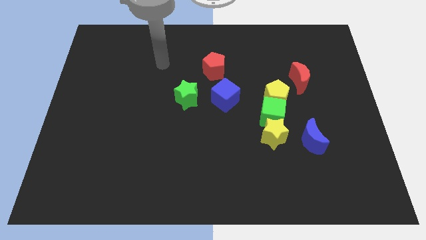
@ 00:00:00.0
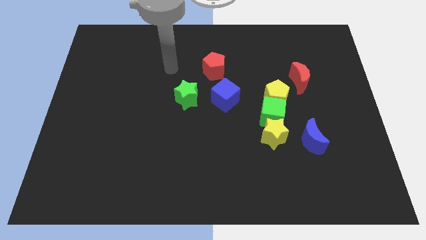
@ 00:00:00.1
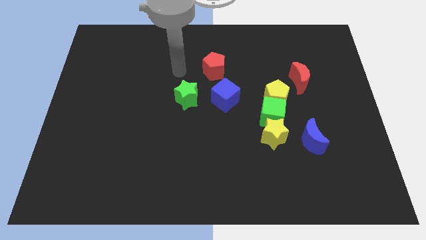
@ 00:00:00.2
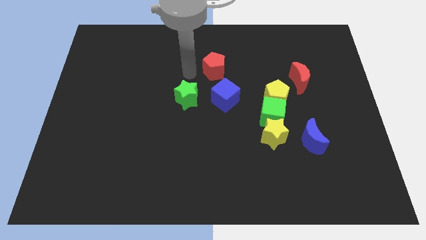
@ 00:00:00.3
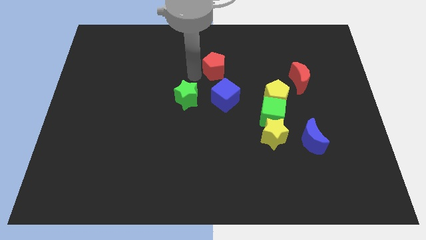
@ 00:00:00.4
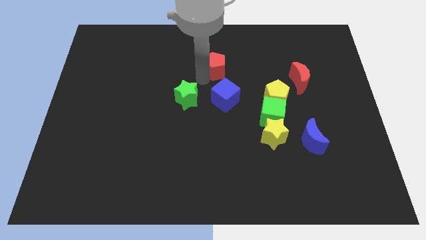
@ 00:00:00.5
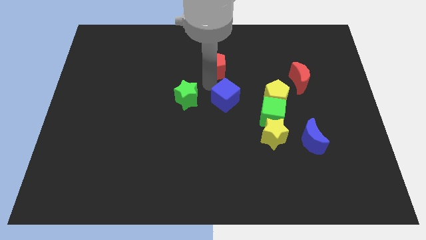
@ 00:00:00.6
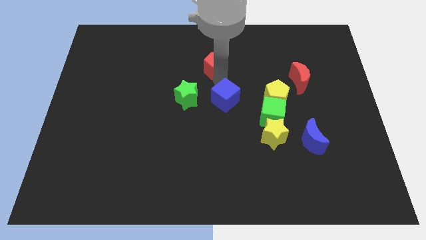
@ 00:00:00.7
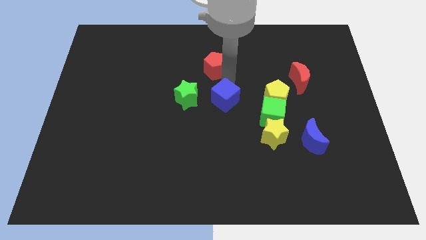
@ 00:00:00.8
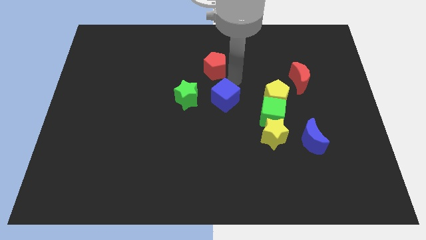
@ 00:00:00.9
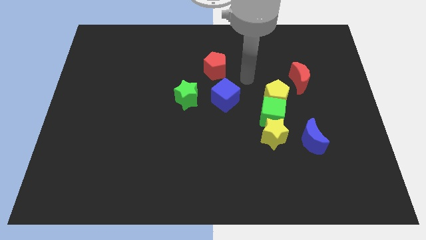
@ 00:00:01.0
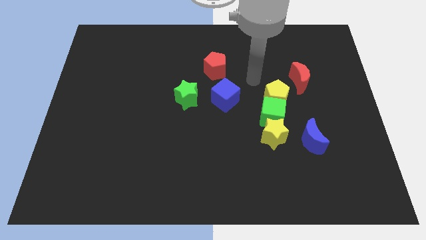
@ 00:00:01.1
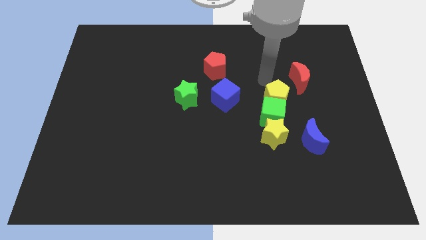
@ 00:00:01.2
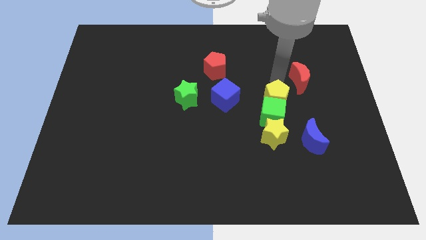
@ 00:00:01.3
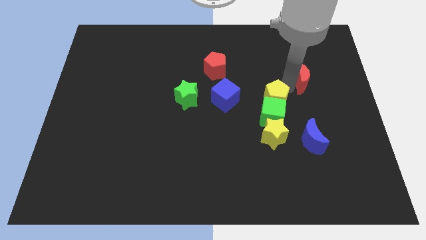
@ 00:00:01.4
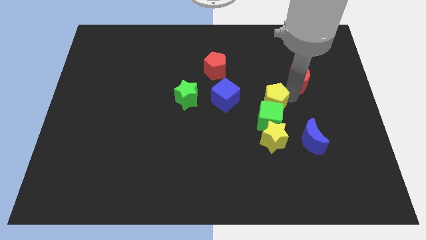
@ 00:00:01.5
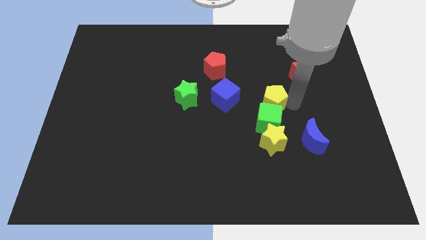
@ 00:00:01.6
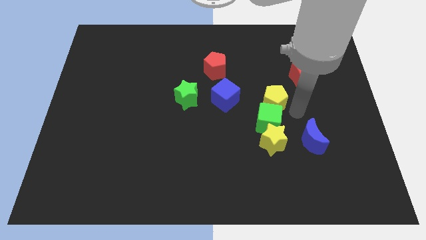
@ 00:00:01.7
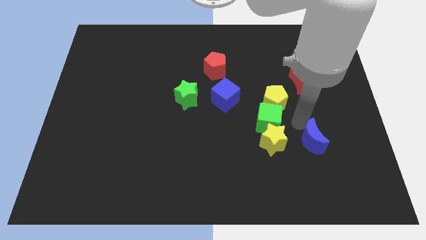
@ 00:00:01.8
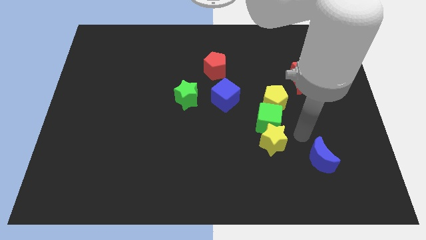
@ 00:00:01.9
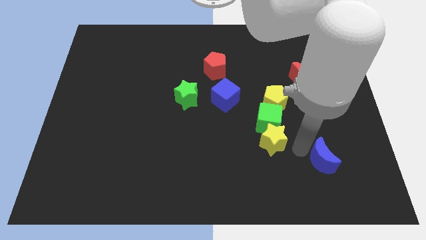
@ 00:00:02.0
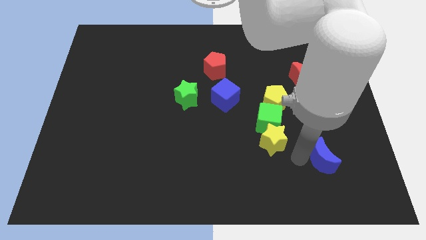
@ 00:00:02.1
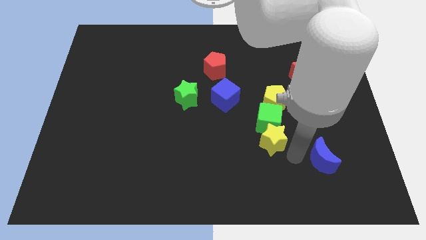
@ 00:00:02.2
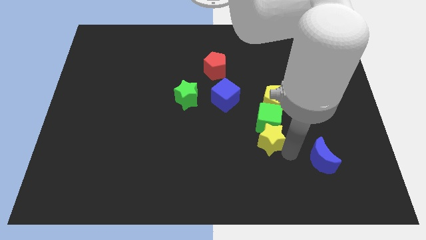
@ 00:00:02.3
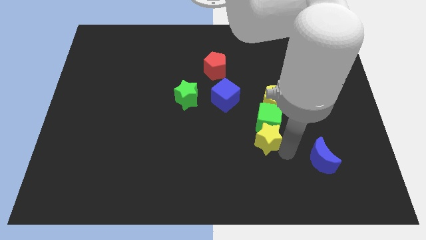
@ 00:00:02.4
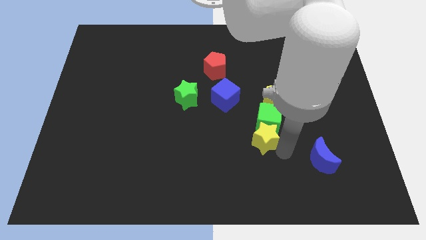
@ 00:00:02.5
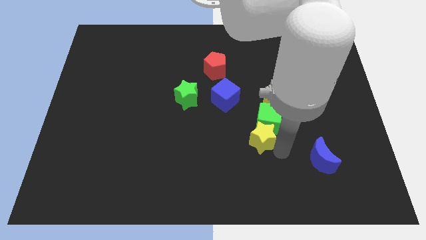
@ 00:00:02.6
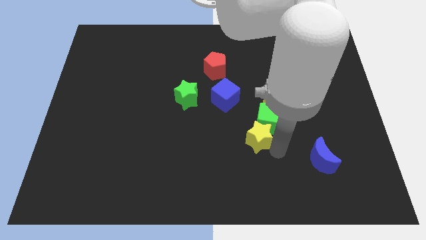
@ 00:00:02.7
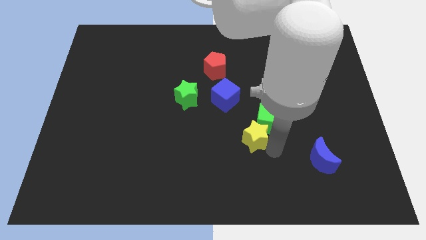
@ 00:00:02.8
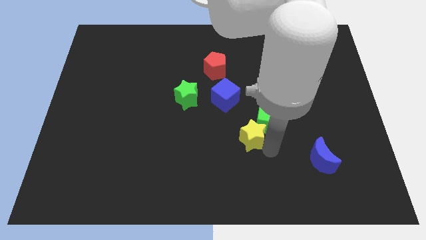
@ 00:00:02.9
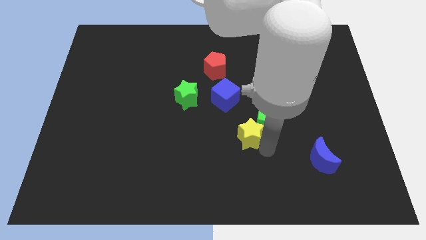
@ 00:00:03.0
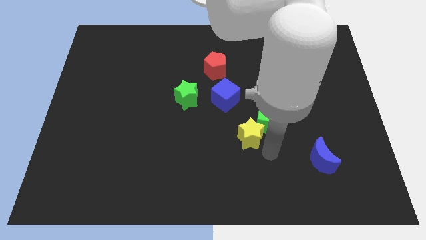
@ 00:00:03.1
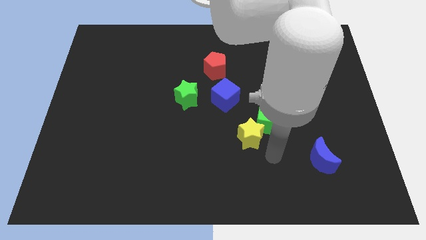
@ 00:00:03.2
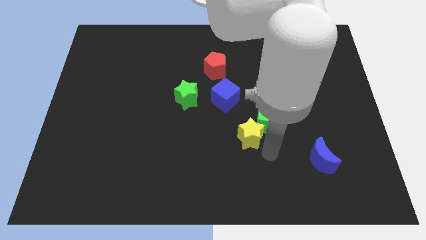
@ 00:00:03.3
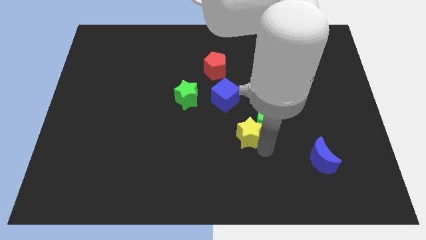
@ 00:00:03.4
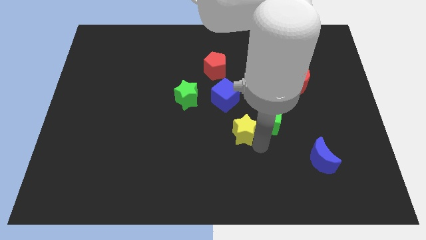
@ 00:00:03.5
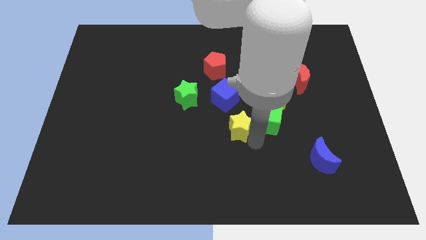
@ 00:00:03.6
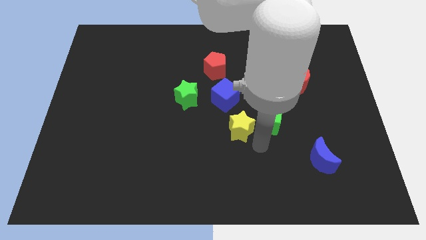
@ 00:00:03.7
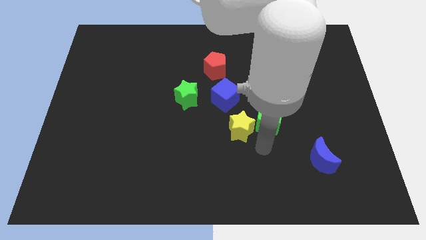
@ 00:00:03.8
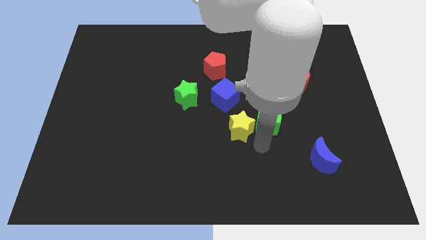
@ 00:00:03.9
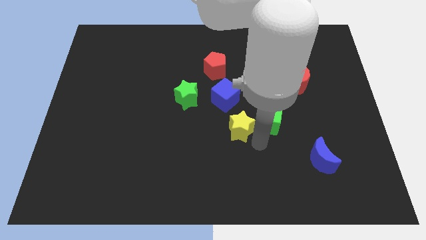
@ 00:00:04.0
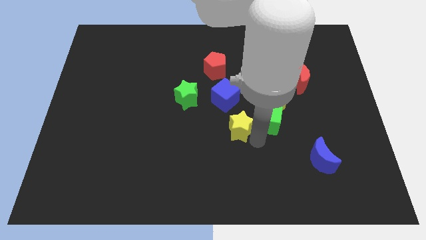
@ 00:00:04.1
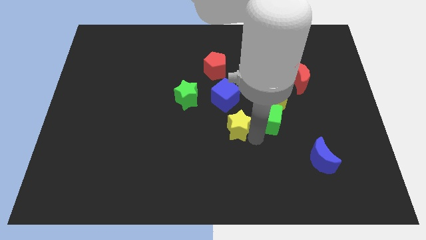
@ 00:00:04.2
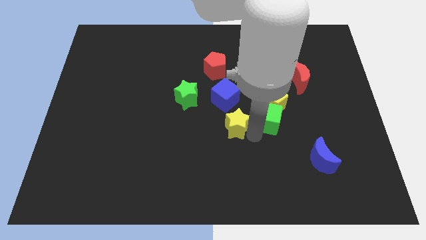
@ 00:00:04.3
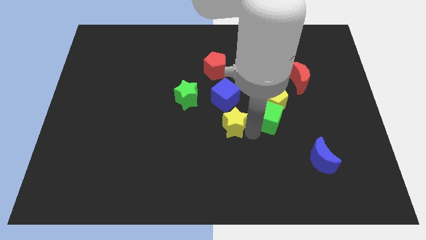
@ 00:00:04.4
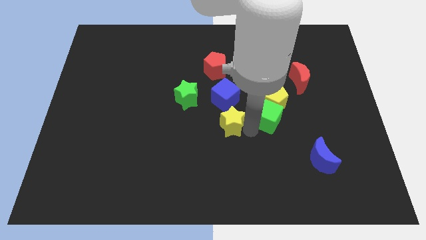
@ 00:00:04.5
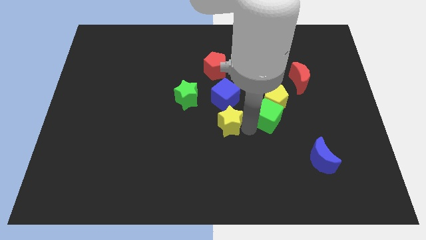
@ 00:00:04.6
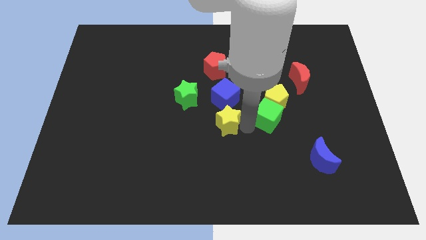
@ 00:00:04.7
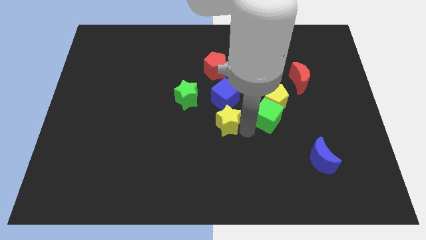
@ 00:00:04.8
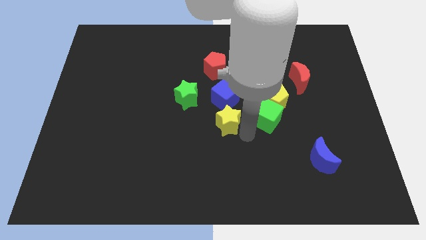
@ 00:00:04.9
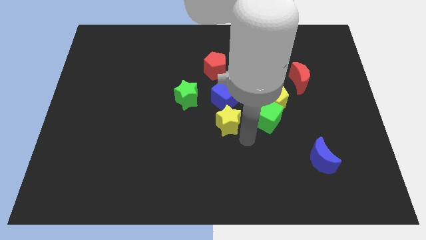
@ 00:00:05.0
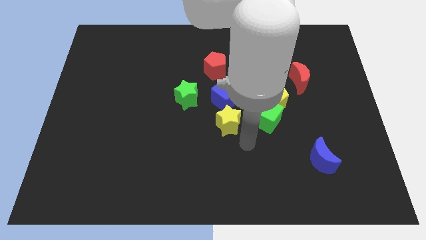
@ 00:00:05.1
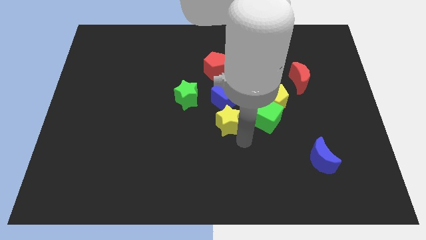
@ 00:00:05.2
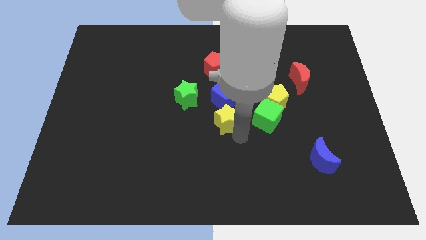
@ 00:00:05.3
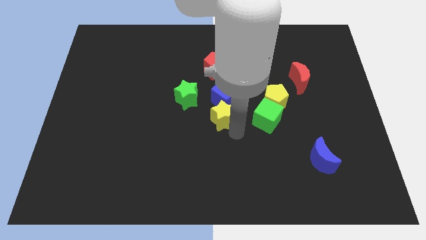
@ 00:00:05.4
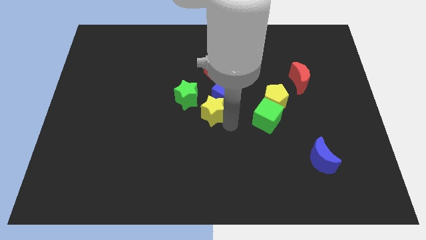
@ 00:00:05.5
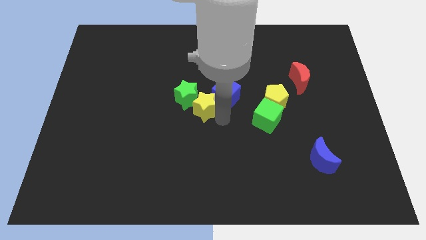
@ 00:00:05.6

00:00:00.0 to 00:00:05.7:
slide the yellow star next to the green star

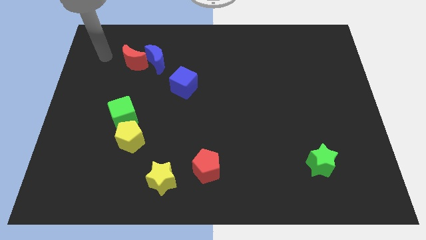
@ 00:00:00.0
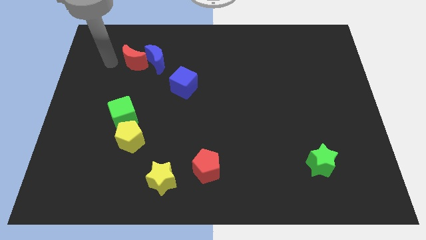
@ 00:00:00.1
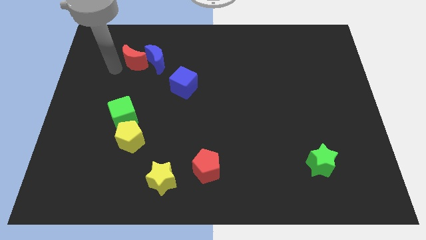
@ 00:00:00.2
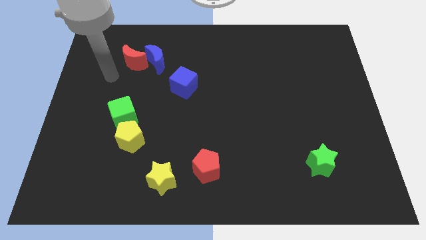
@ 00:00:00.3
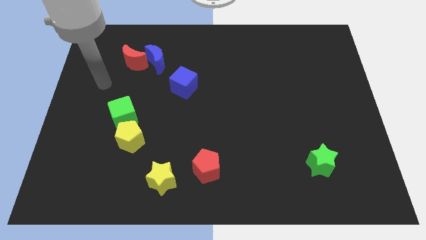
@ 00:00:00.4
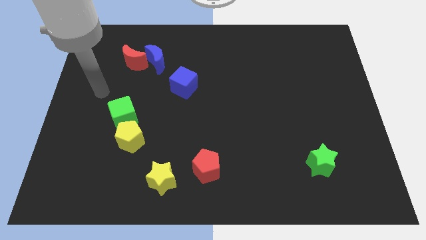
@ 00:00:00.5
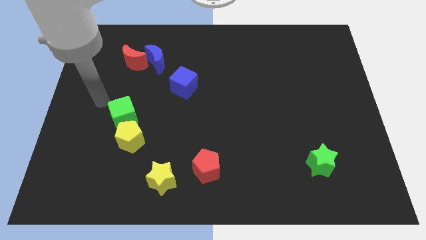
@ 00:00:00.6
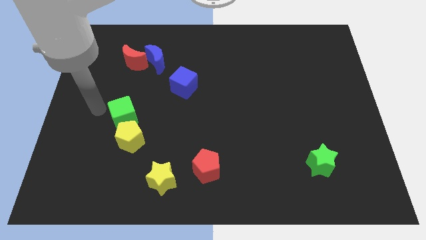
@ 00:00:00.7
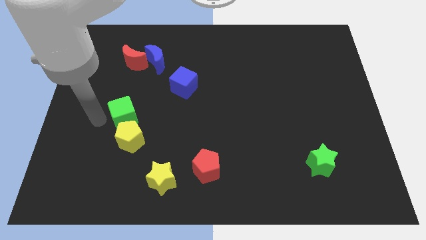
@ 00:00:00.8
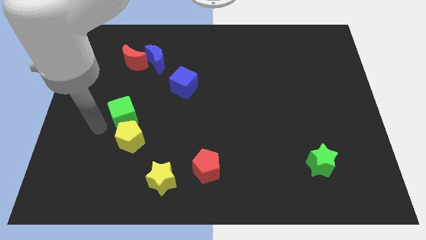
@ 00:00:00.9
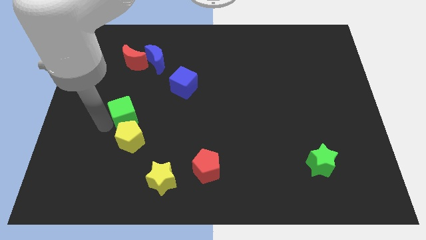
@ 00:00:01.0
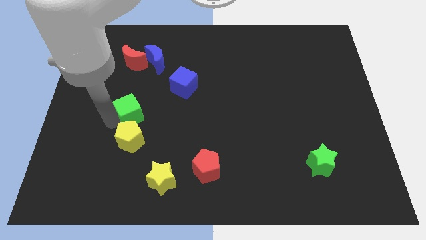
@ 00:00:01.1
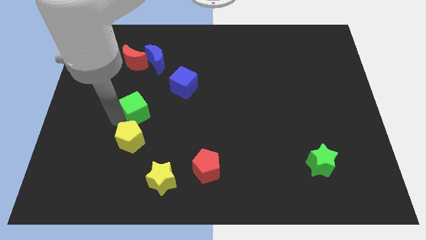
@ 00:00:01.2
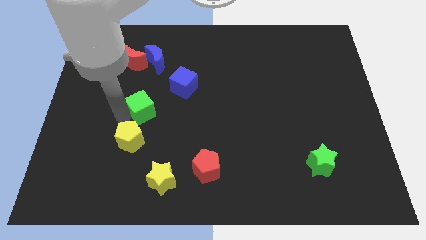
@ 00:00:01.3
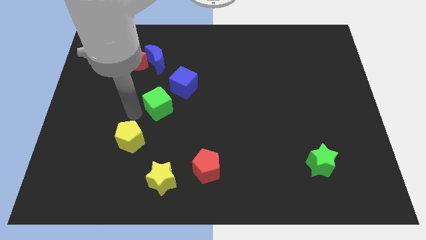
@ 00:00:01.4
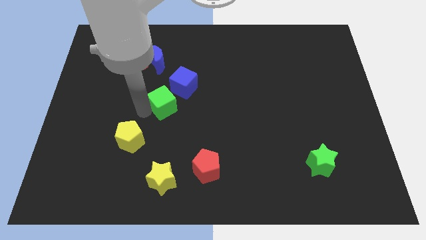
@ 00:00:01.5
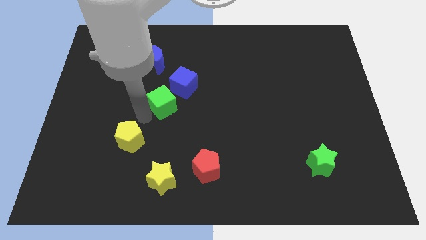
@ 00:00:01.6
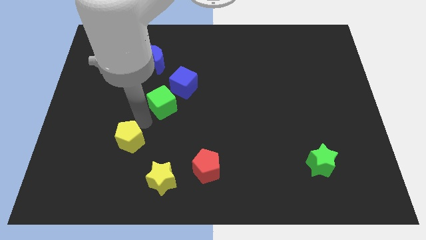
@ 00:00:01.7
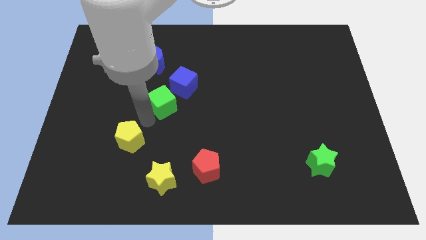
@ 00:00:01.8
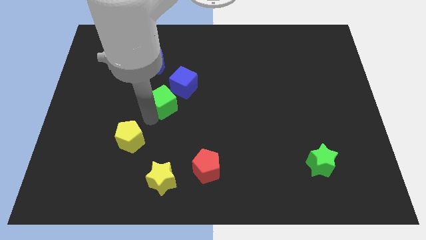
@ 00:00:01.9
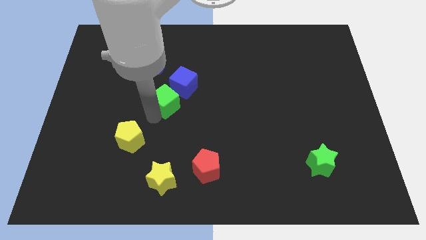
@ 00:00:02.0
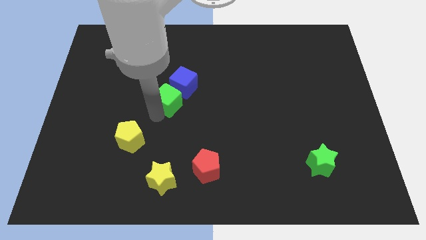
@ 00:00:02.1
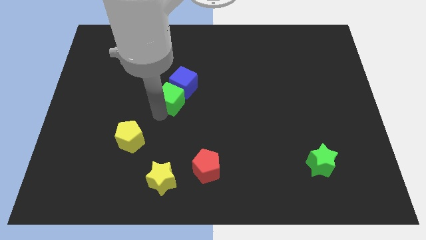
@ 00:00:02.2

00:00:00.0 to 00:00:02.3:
put the green cube to the blue cube
